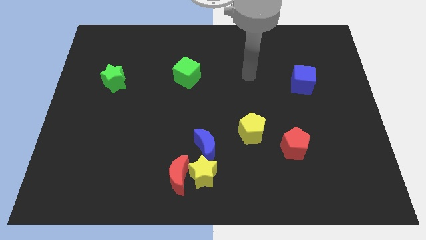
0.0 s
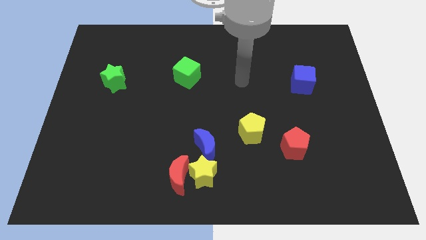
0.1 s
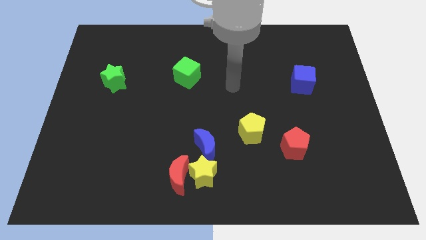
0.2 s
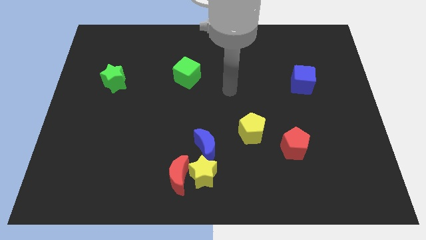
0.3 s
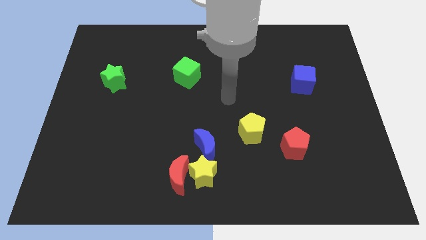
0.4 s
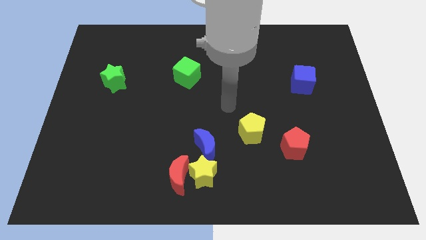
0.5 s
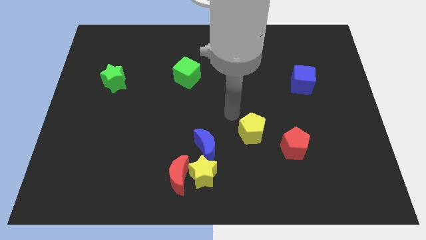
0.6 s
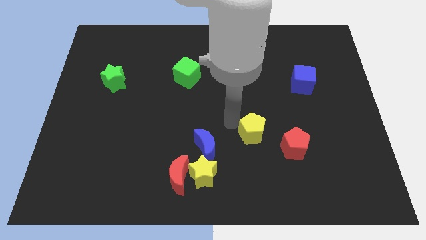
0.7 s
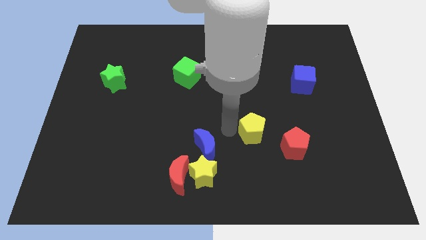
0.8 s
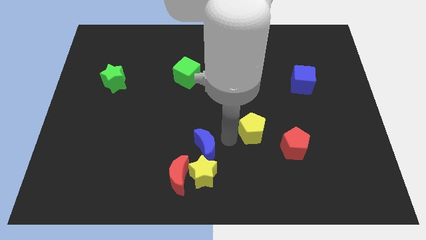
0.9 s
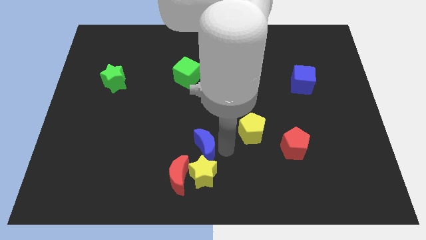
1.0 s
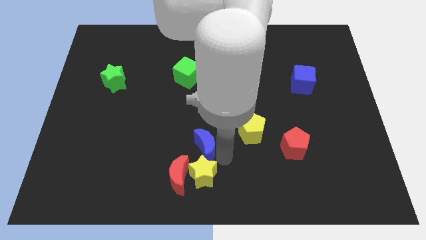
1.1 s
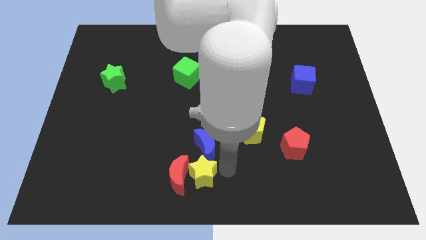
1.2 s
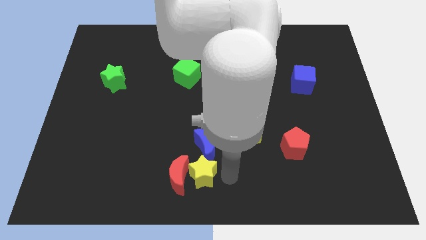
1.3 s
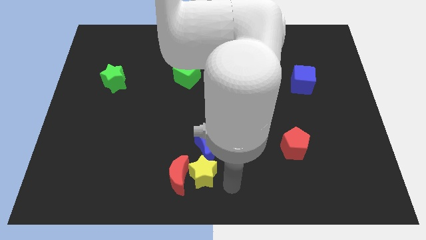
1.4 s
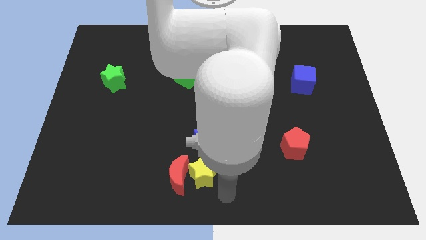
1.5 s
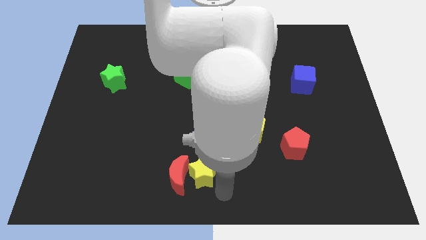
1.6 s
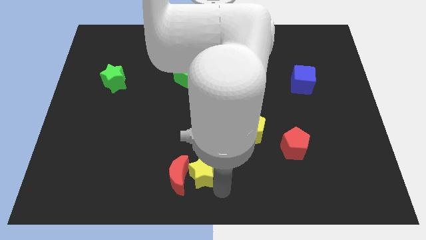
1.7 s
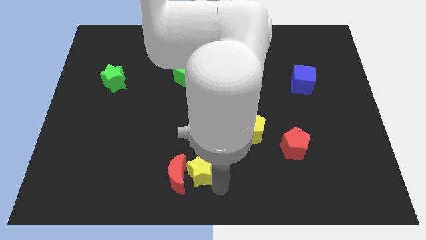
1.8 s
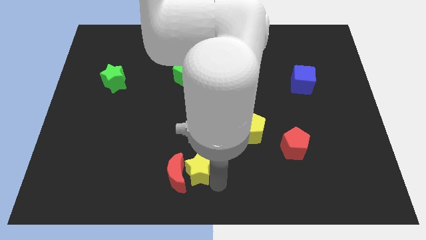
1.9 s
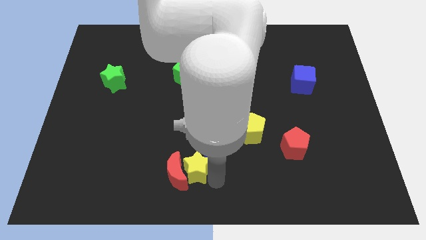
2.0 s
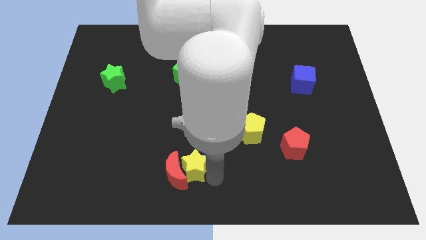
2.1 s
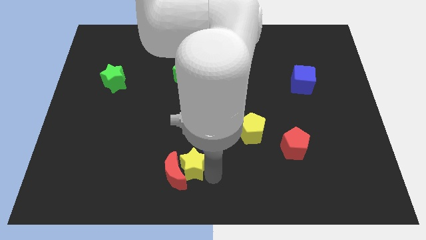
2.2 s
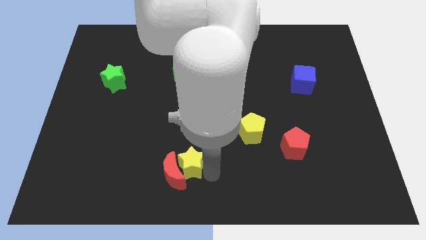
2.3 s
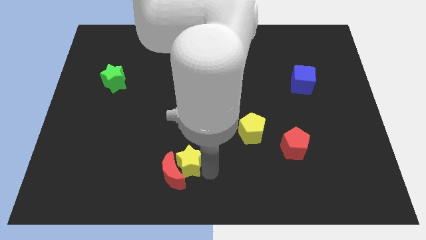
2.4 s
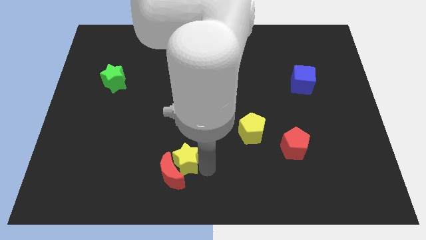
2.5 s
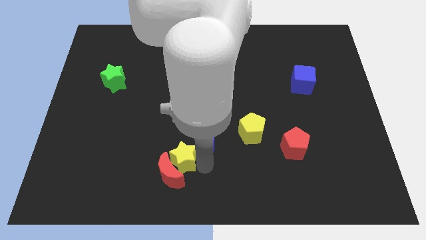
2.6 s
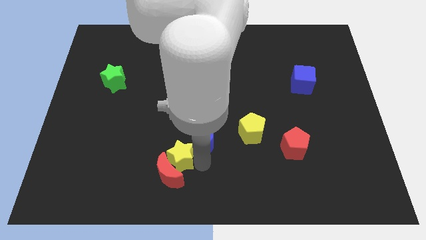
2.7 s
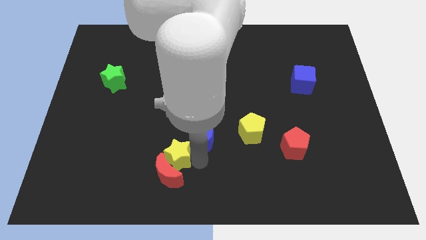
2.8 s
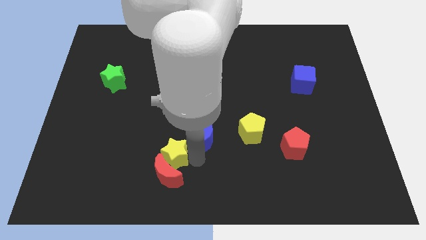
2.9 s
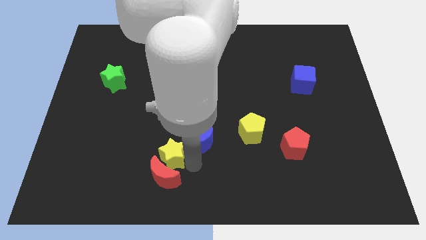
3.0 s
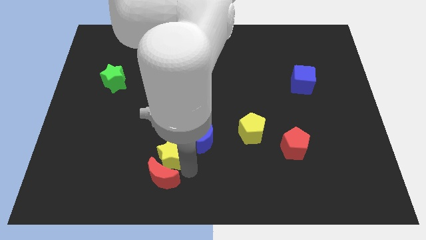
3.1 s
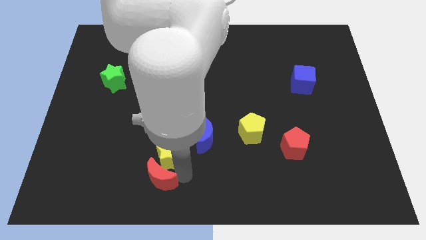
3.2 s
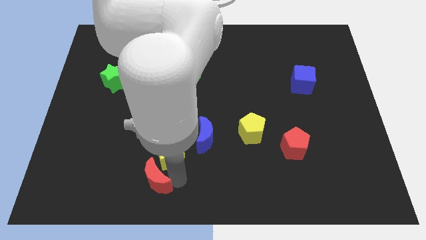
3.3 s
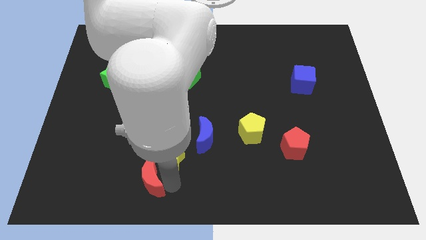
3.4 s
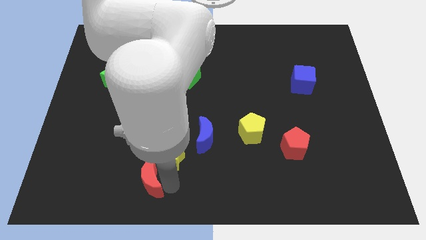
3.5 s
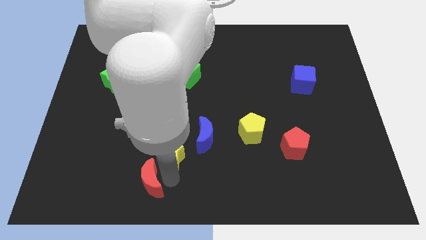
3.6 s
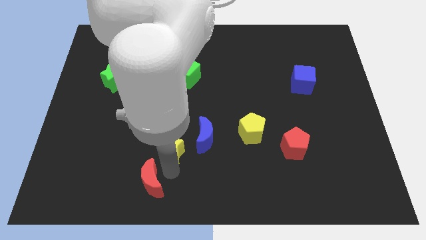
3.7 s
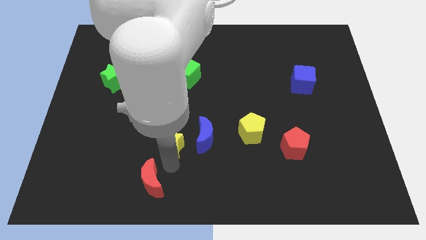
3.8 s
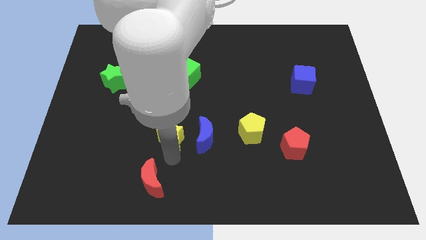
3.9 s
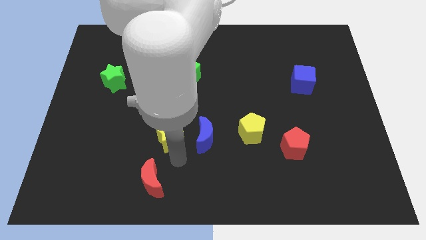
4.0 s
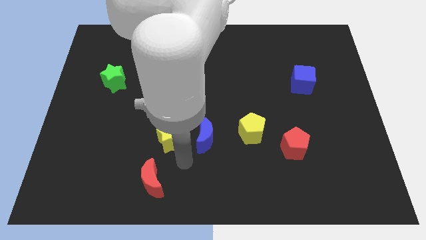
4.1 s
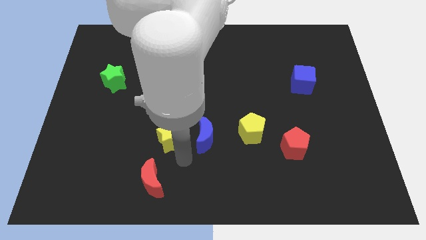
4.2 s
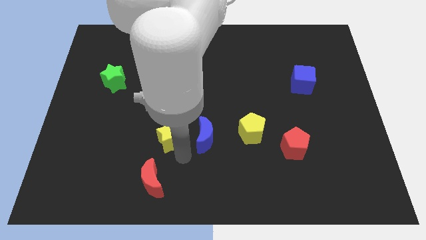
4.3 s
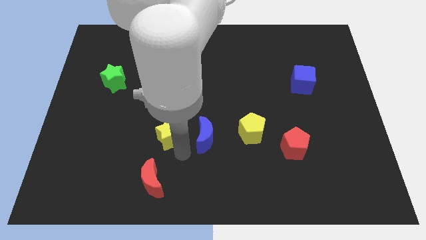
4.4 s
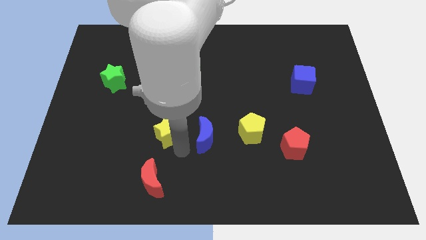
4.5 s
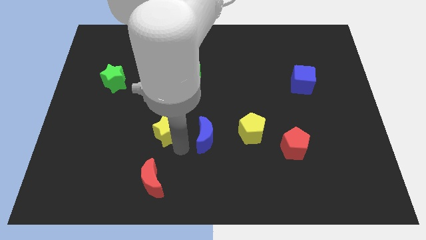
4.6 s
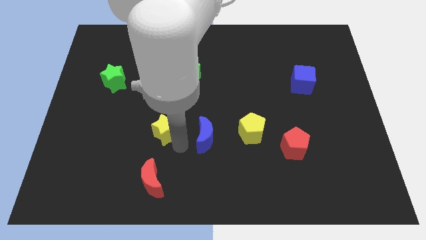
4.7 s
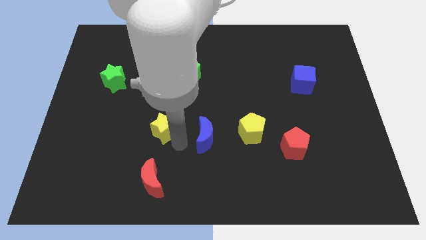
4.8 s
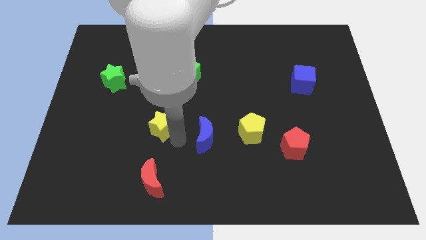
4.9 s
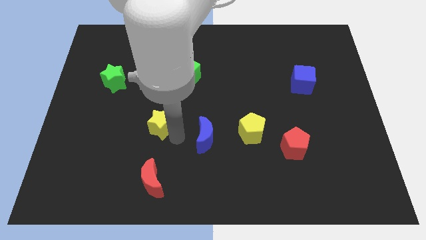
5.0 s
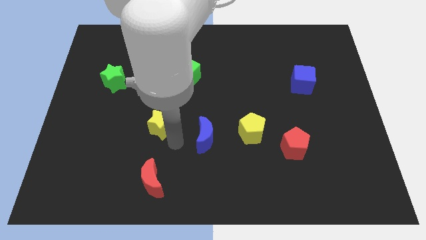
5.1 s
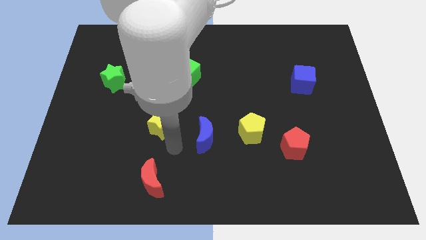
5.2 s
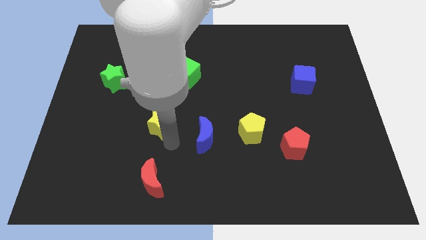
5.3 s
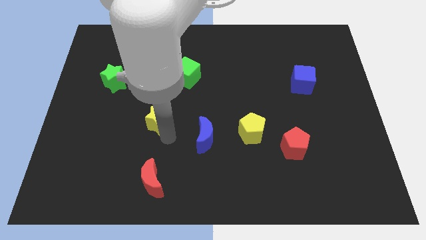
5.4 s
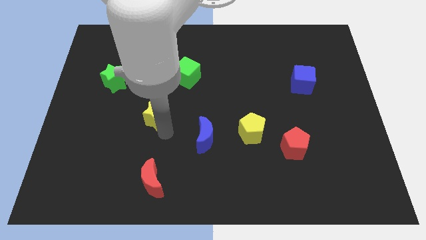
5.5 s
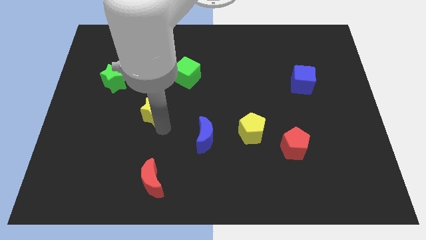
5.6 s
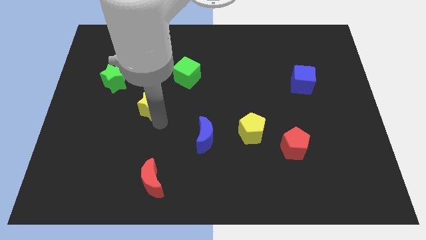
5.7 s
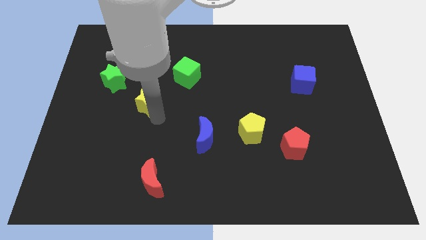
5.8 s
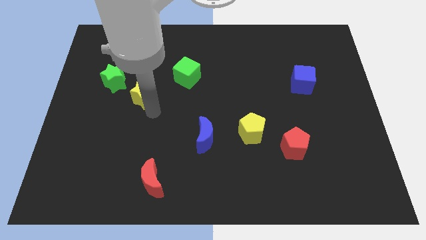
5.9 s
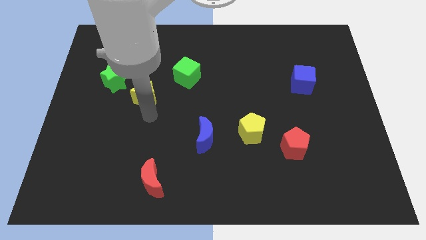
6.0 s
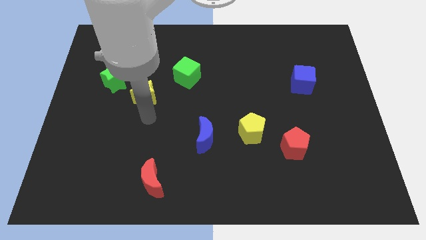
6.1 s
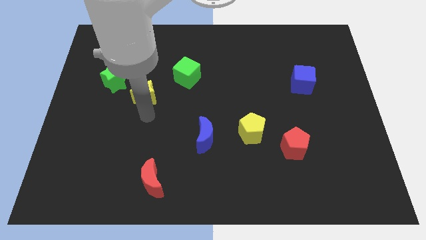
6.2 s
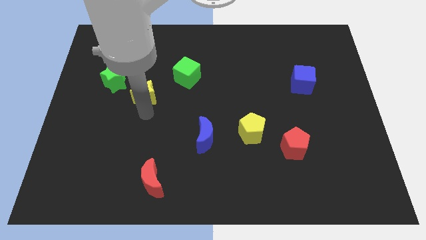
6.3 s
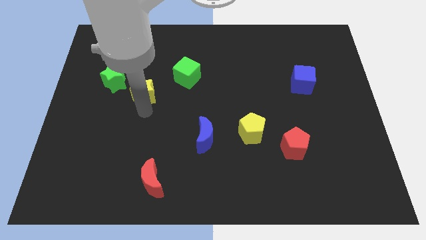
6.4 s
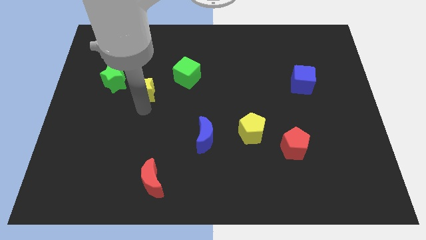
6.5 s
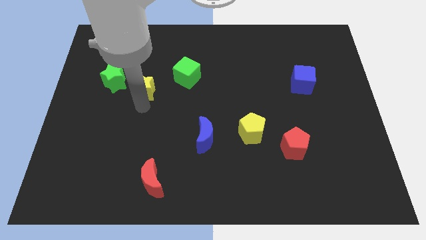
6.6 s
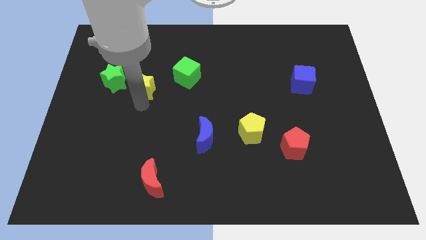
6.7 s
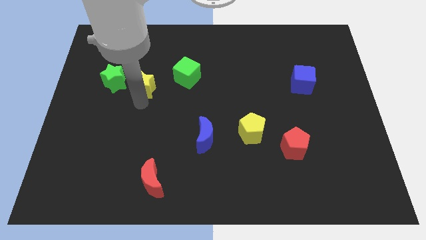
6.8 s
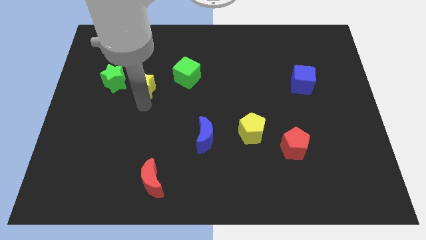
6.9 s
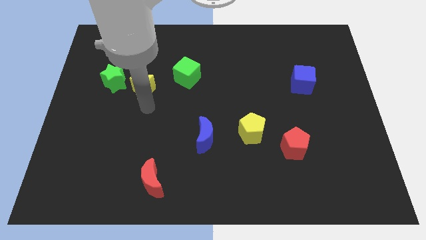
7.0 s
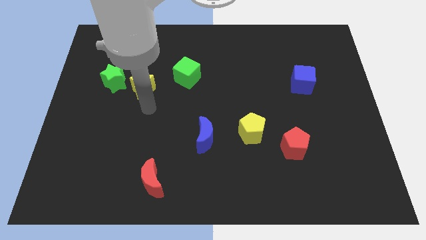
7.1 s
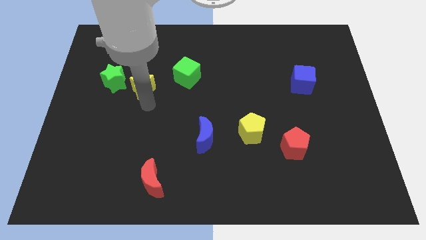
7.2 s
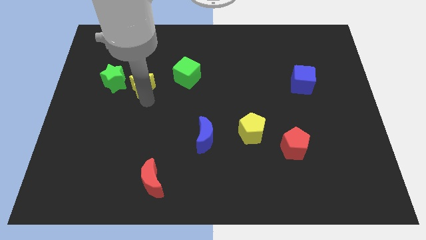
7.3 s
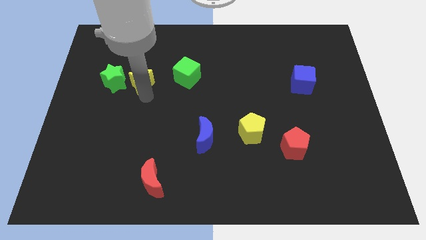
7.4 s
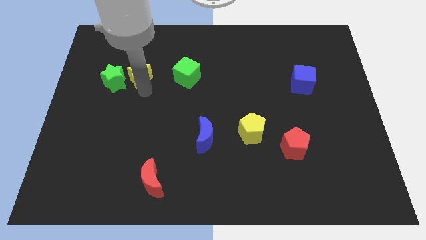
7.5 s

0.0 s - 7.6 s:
slide the yellow star diagonally up and to the right of the green star
